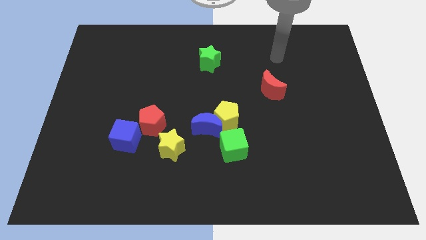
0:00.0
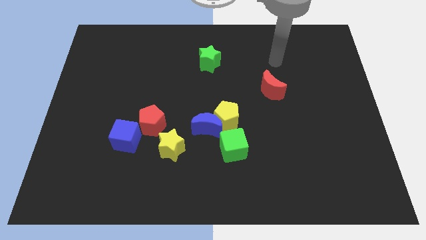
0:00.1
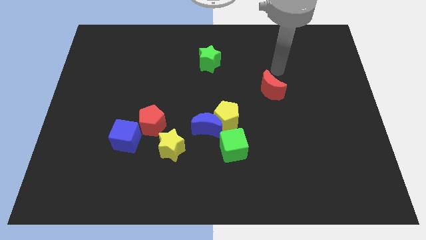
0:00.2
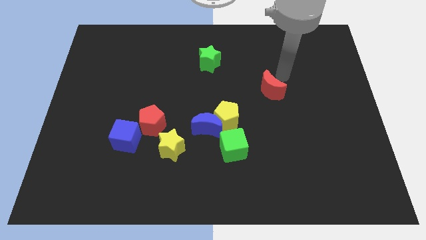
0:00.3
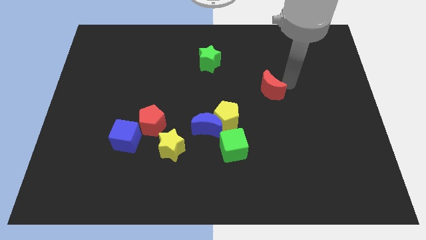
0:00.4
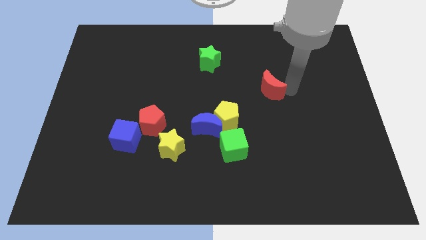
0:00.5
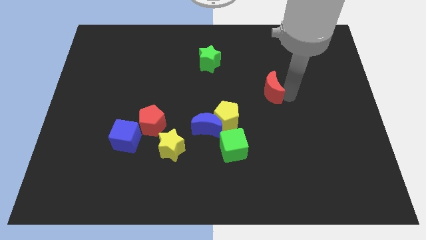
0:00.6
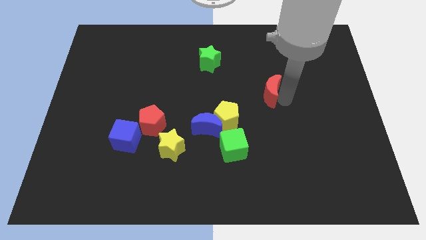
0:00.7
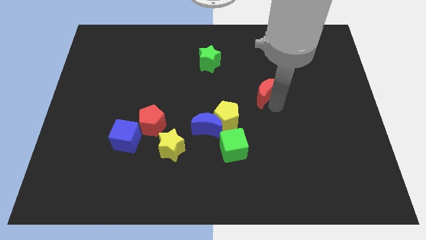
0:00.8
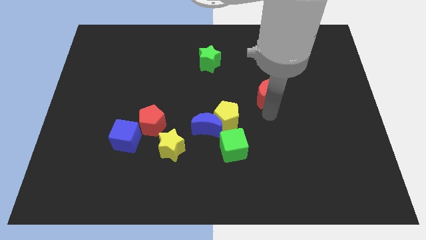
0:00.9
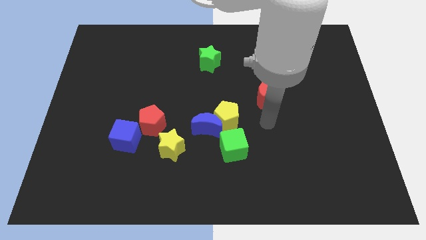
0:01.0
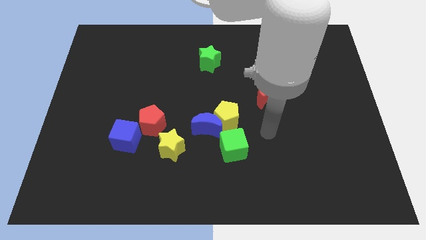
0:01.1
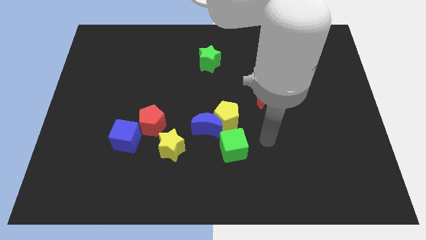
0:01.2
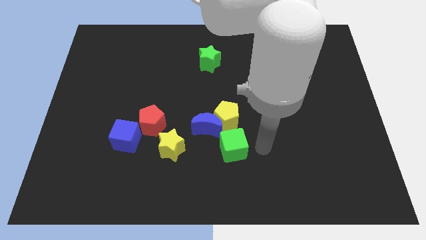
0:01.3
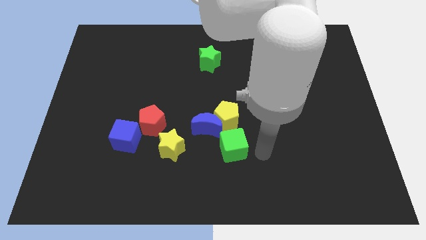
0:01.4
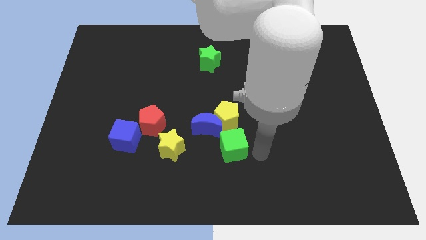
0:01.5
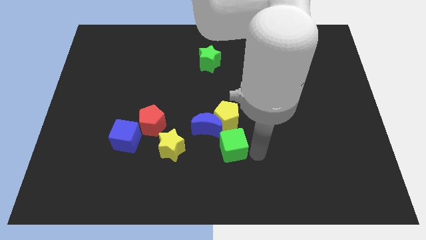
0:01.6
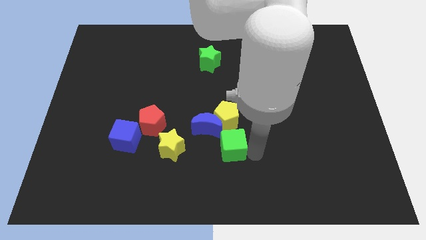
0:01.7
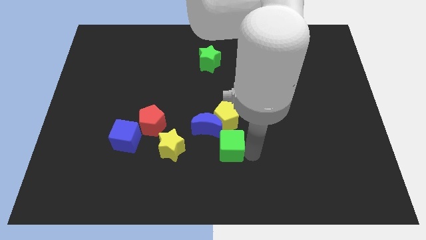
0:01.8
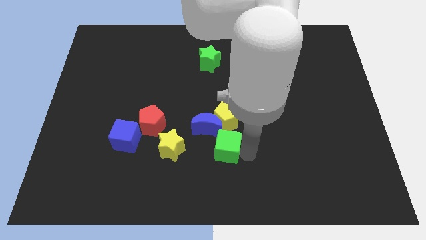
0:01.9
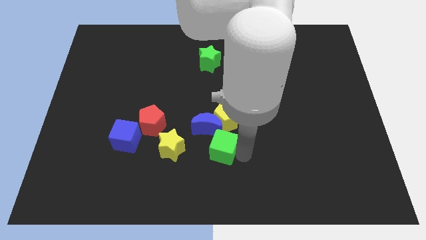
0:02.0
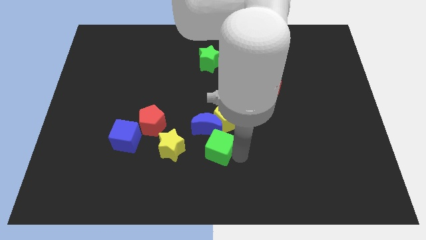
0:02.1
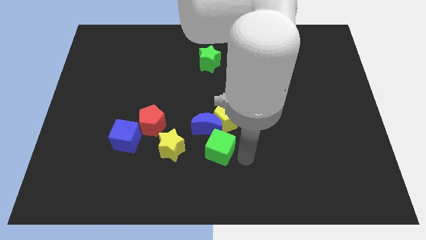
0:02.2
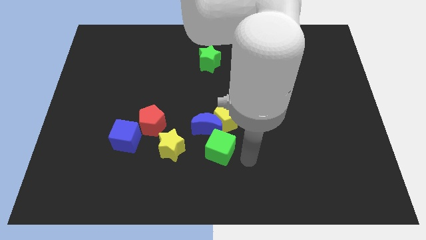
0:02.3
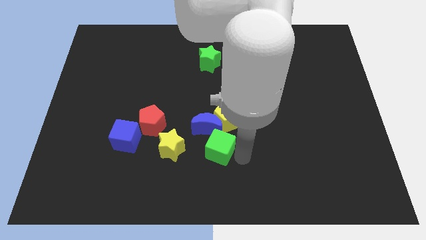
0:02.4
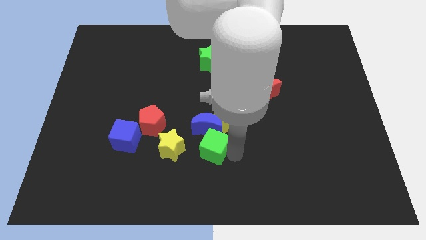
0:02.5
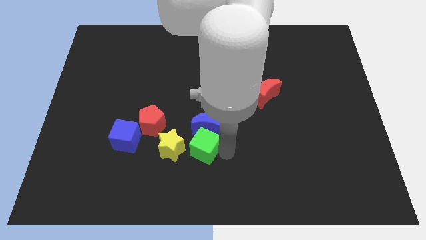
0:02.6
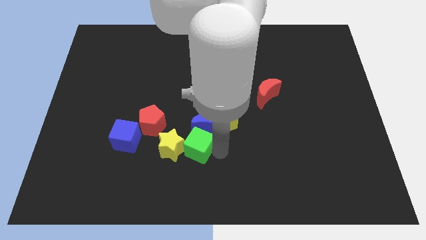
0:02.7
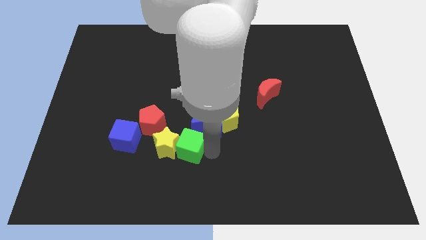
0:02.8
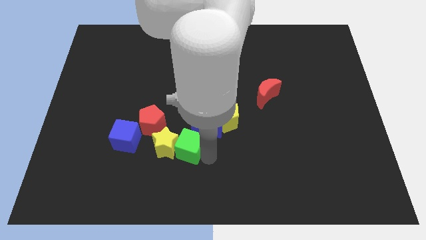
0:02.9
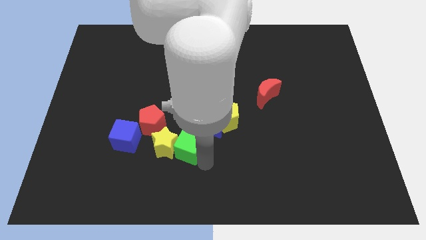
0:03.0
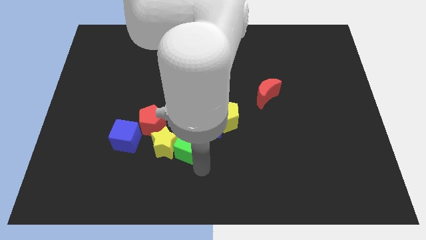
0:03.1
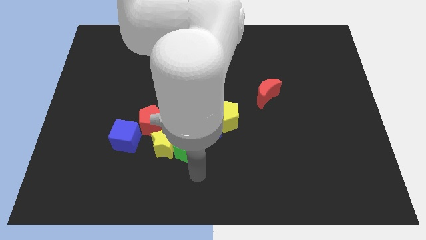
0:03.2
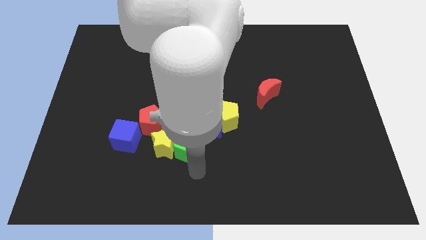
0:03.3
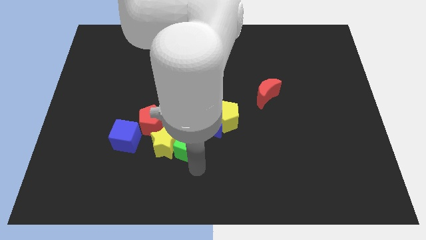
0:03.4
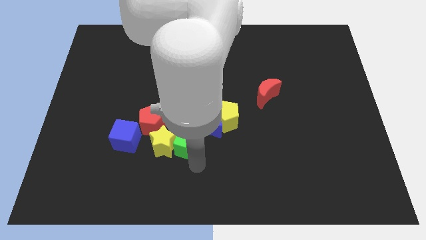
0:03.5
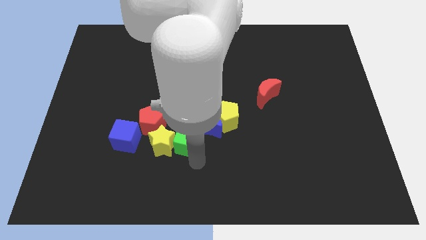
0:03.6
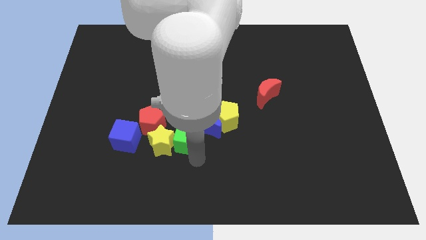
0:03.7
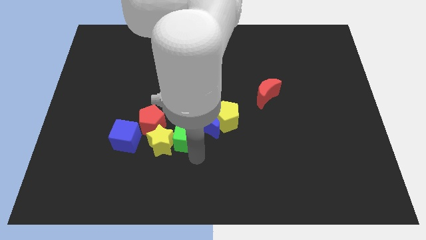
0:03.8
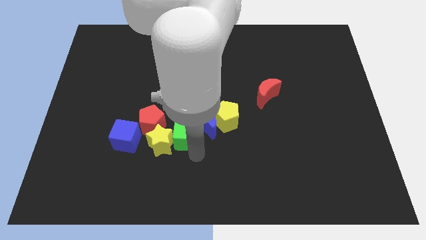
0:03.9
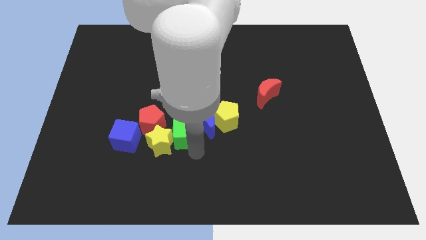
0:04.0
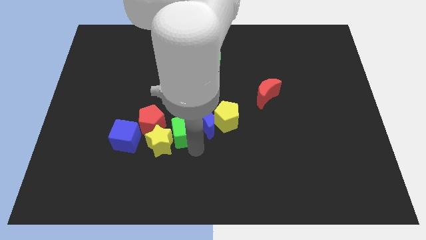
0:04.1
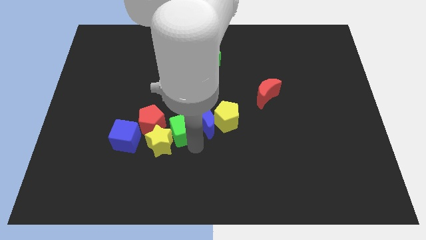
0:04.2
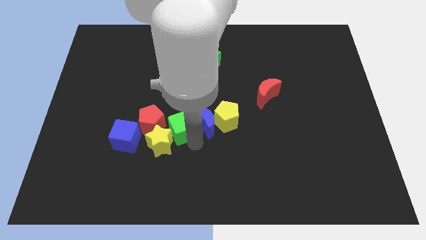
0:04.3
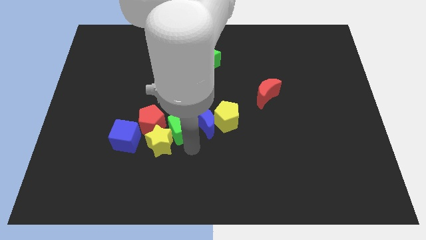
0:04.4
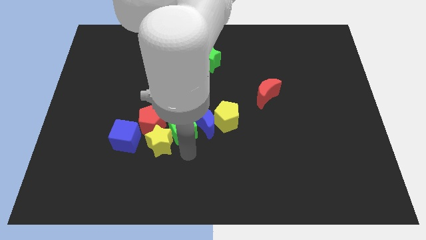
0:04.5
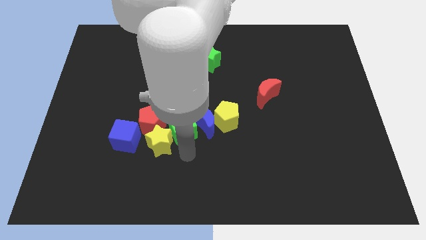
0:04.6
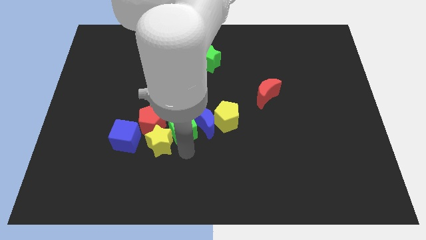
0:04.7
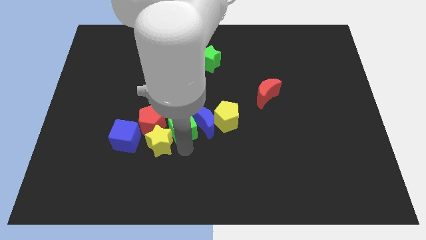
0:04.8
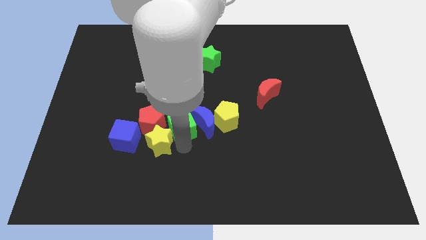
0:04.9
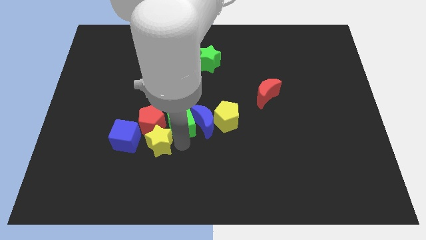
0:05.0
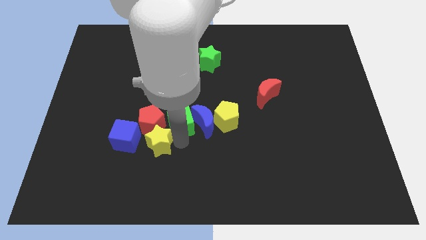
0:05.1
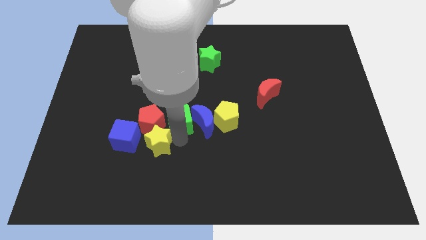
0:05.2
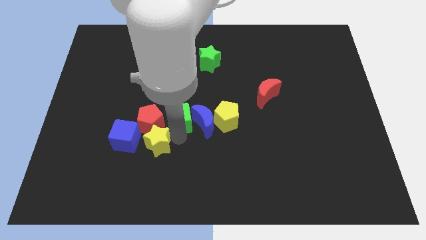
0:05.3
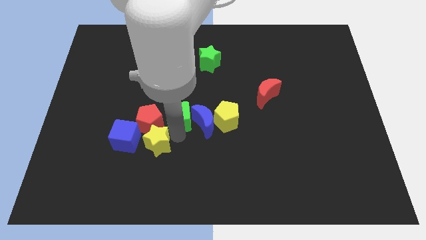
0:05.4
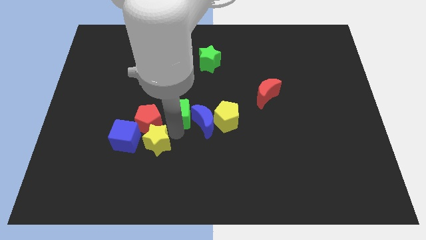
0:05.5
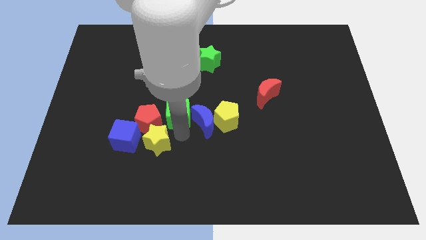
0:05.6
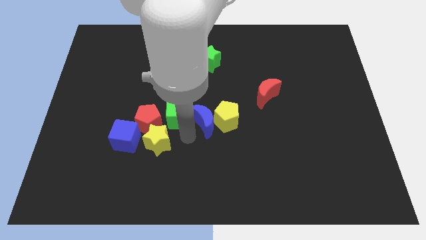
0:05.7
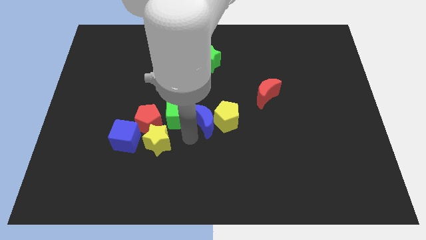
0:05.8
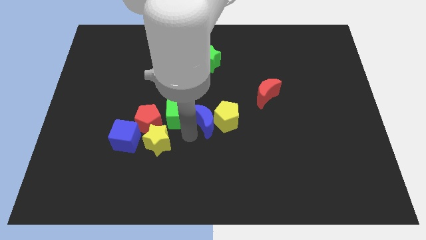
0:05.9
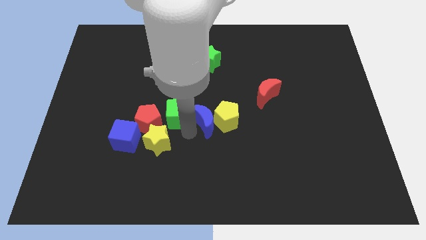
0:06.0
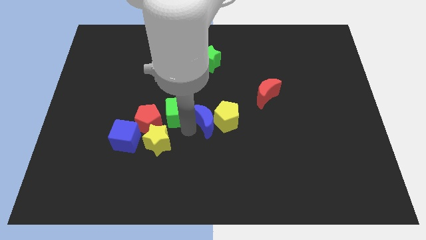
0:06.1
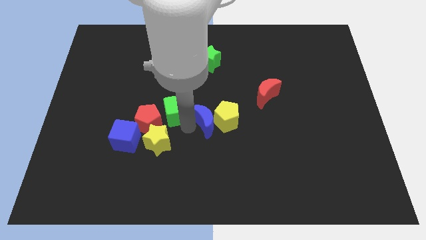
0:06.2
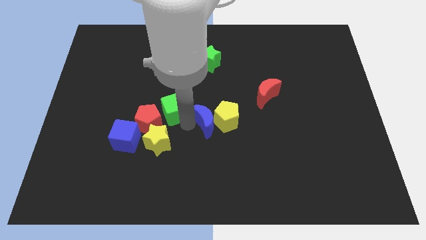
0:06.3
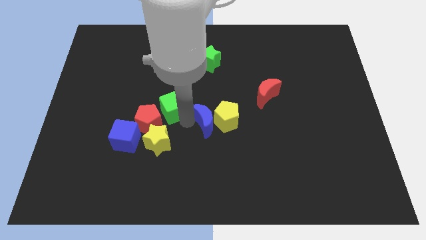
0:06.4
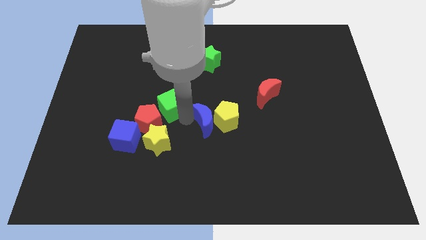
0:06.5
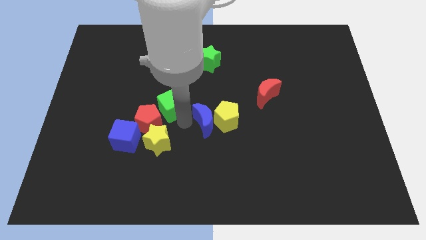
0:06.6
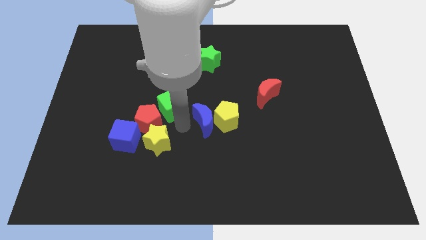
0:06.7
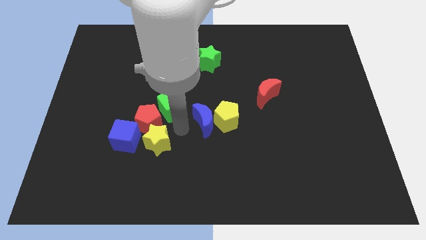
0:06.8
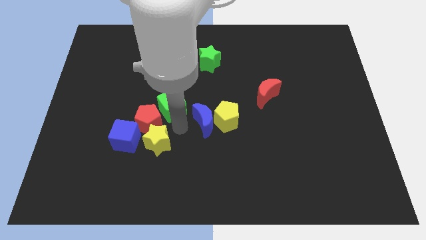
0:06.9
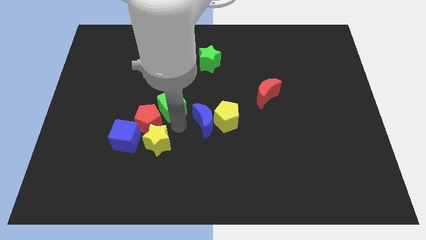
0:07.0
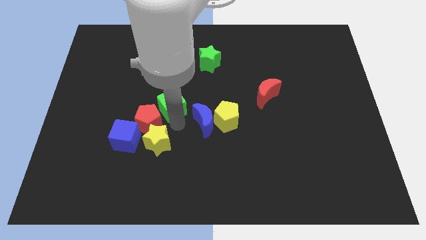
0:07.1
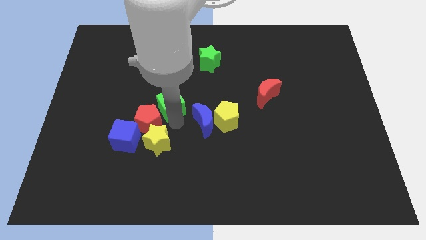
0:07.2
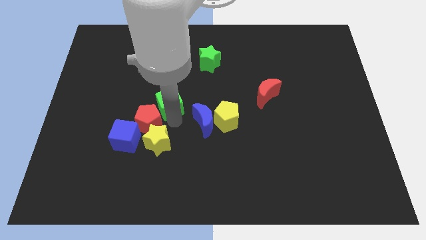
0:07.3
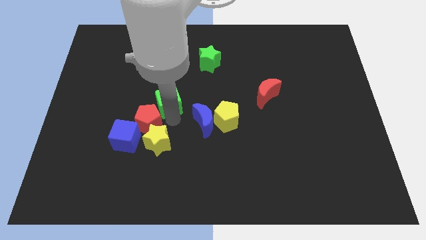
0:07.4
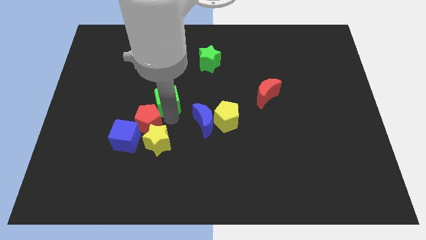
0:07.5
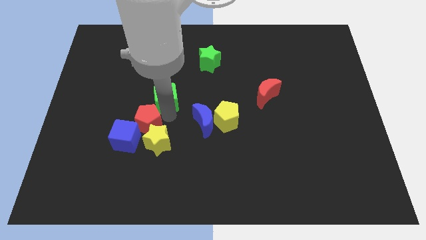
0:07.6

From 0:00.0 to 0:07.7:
push the green cube upwards and then left
